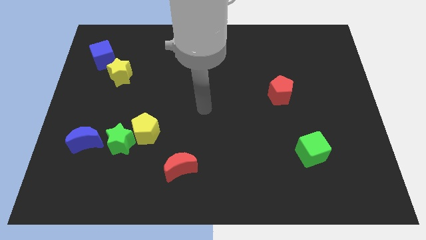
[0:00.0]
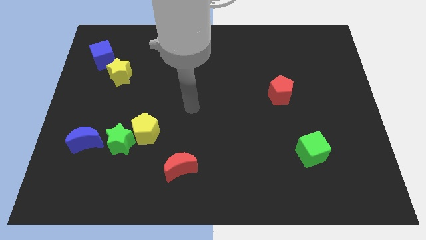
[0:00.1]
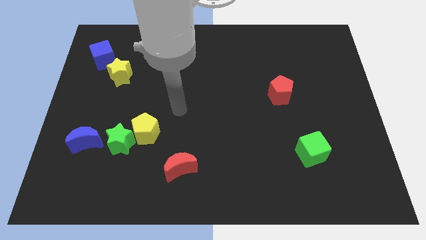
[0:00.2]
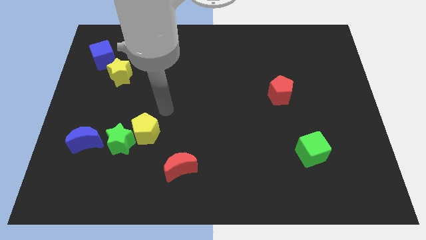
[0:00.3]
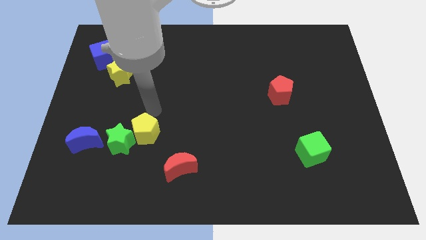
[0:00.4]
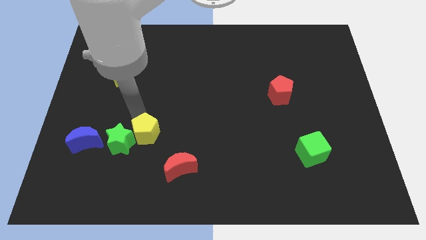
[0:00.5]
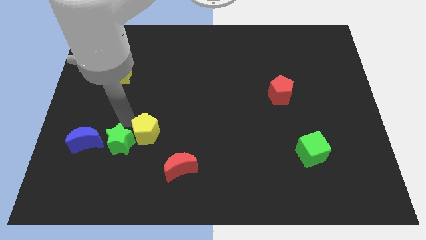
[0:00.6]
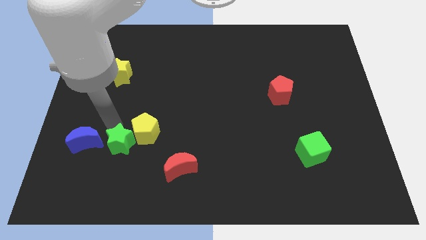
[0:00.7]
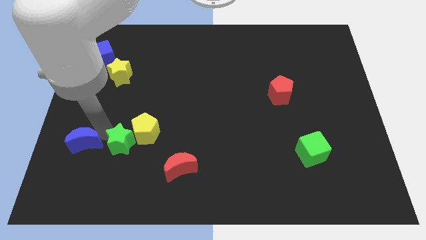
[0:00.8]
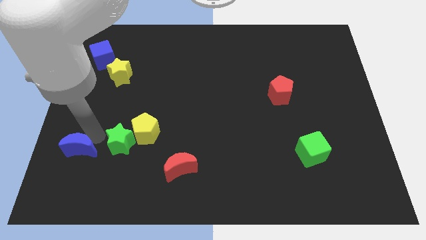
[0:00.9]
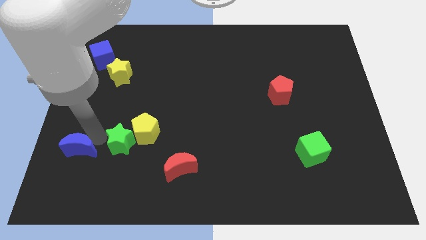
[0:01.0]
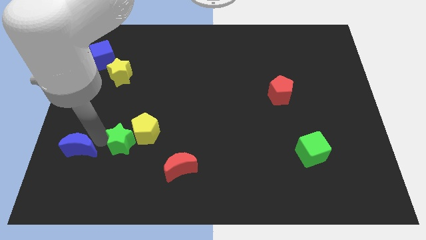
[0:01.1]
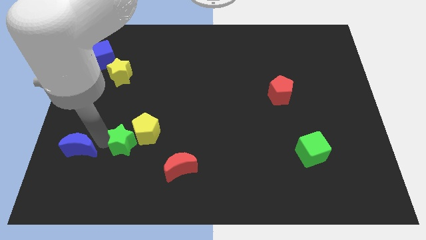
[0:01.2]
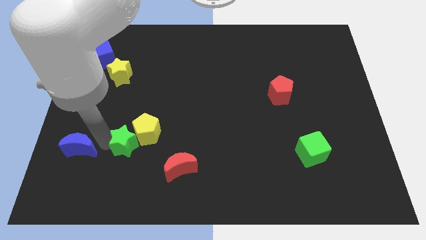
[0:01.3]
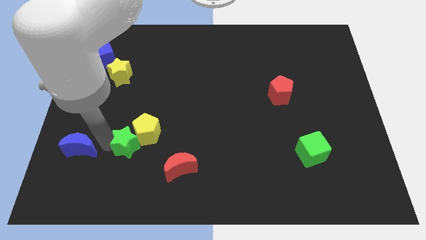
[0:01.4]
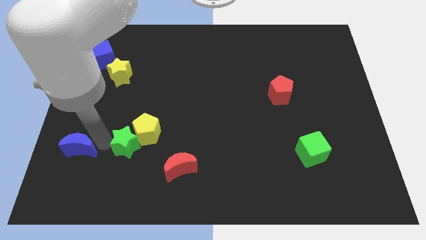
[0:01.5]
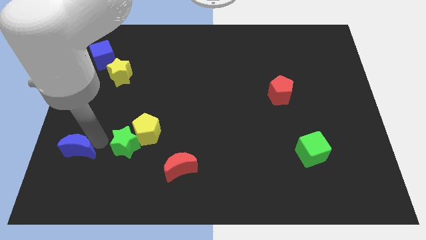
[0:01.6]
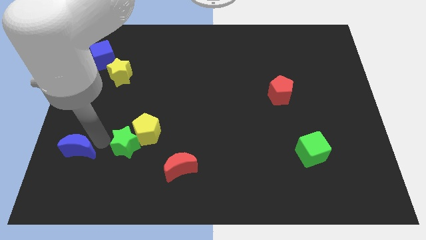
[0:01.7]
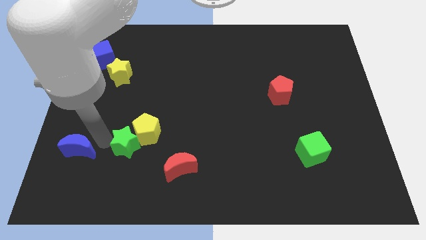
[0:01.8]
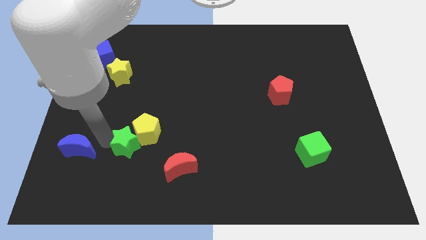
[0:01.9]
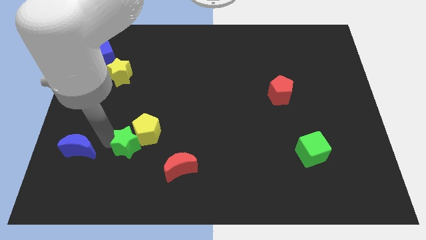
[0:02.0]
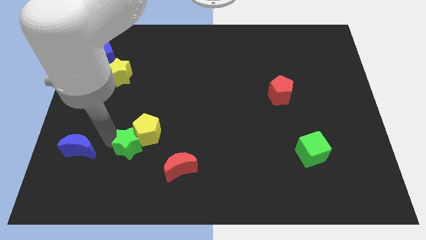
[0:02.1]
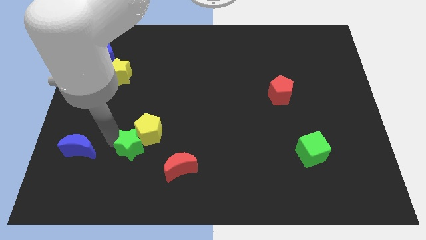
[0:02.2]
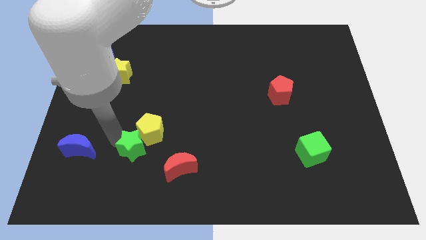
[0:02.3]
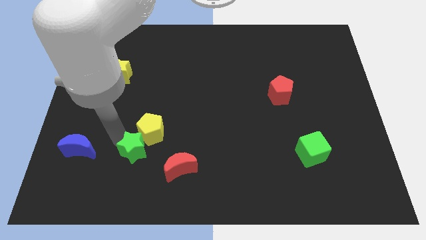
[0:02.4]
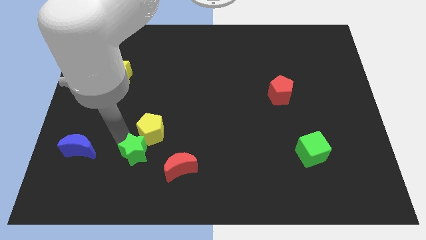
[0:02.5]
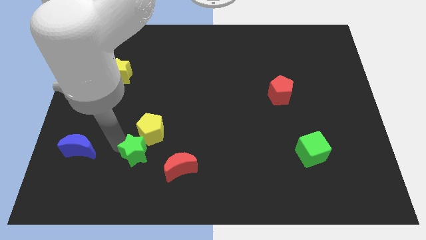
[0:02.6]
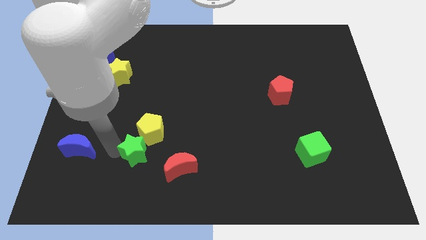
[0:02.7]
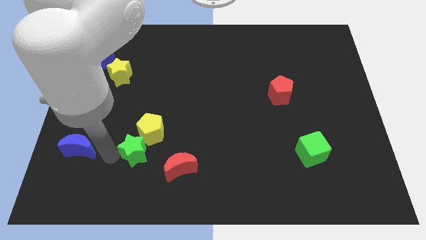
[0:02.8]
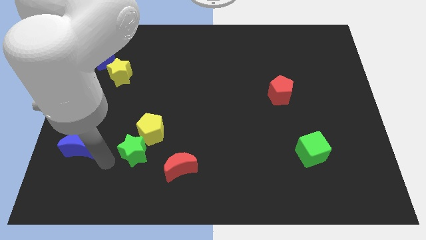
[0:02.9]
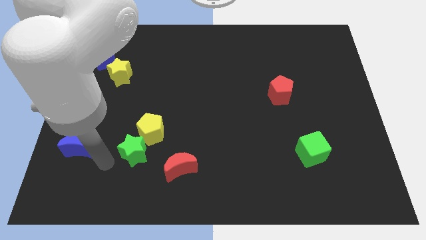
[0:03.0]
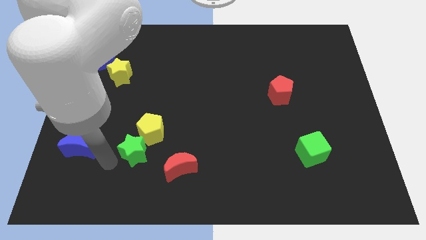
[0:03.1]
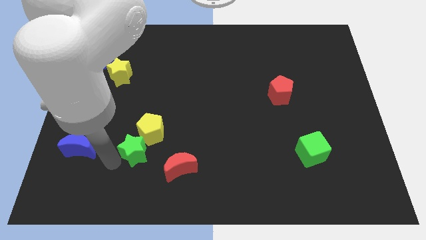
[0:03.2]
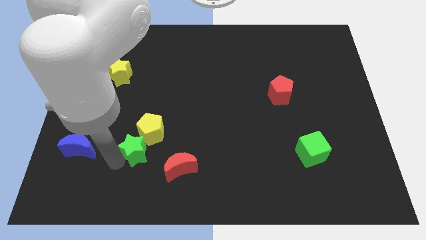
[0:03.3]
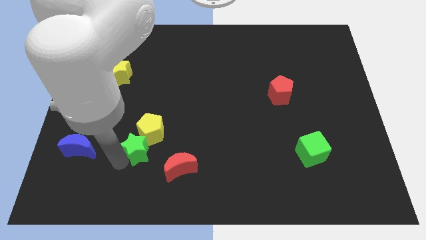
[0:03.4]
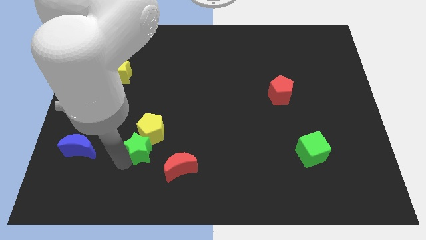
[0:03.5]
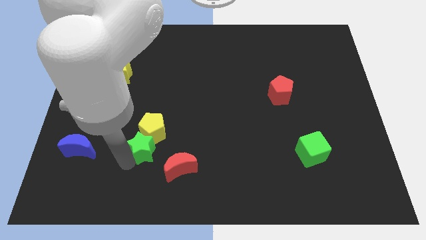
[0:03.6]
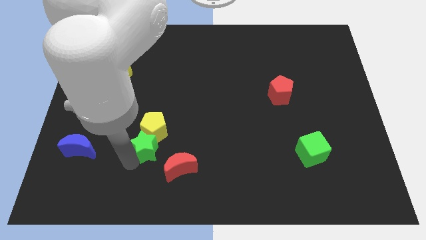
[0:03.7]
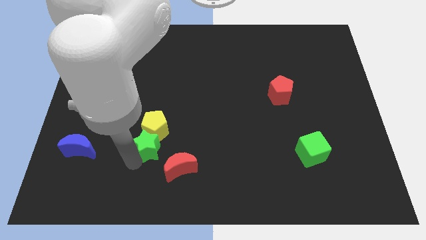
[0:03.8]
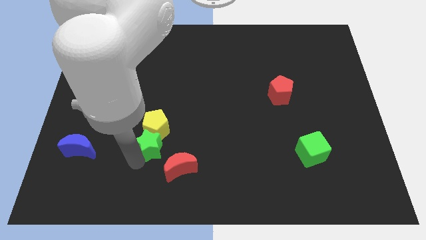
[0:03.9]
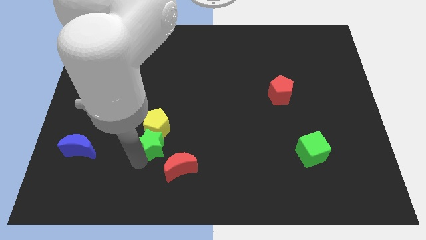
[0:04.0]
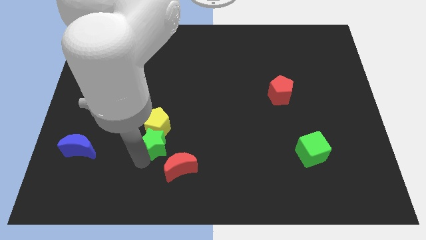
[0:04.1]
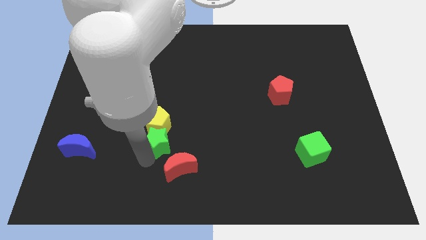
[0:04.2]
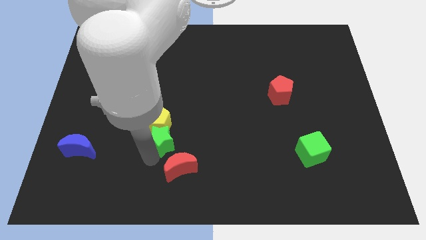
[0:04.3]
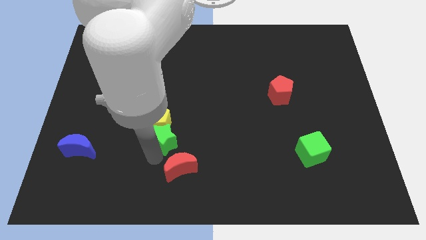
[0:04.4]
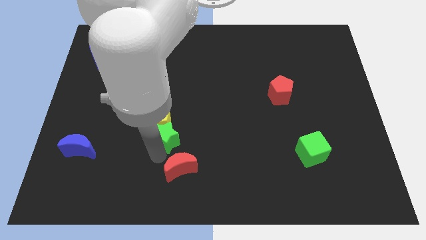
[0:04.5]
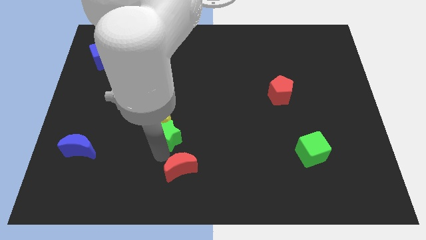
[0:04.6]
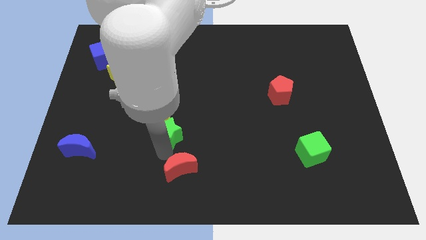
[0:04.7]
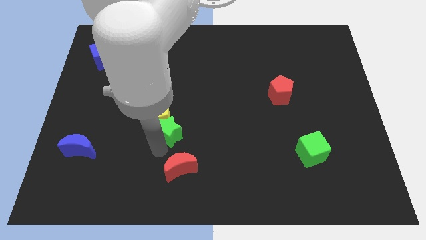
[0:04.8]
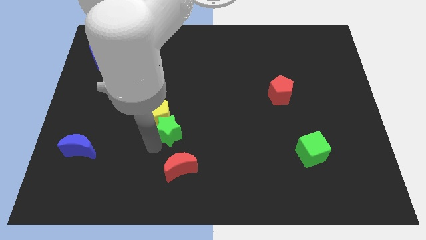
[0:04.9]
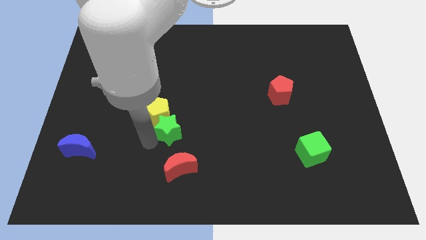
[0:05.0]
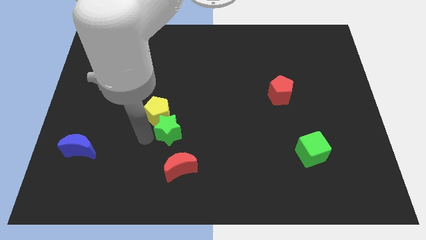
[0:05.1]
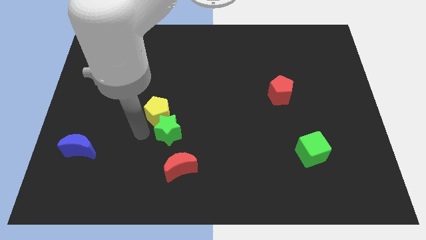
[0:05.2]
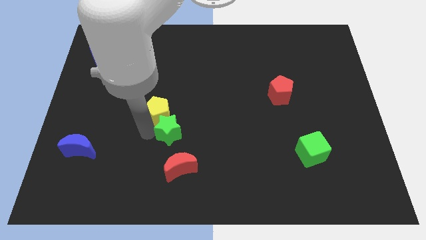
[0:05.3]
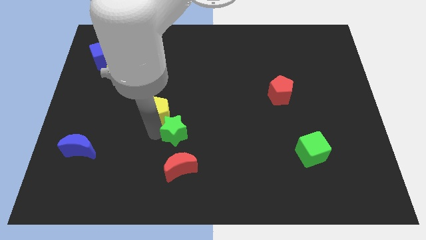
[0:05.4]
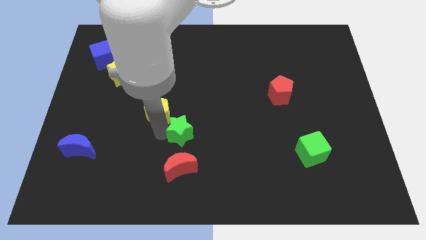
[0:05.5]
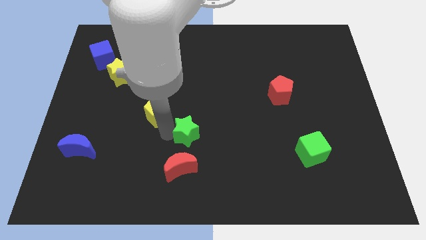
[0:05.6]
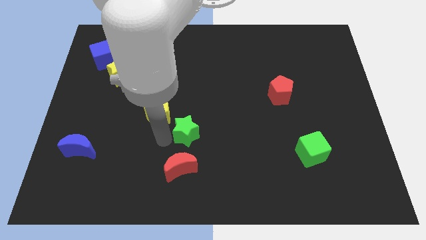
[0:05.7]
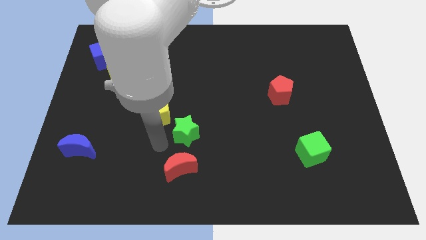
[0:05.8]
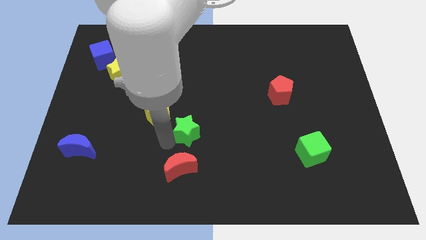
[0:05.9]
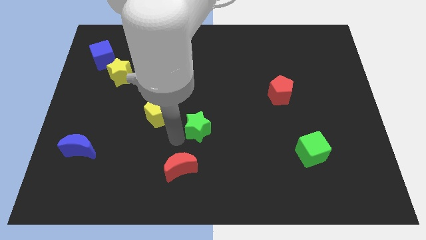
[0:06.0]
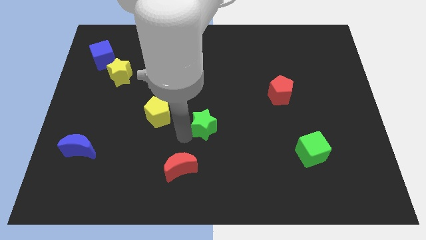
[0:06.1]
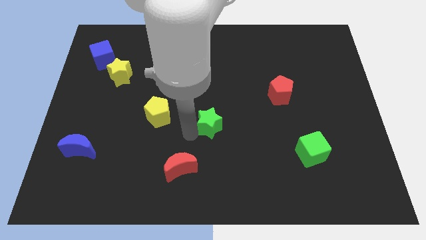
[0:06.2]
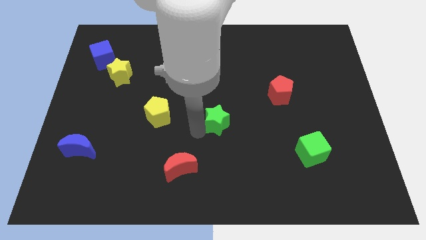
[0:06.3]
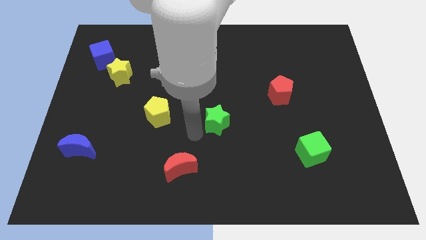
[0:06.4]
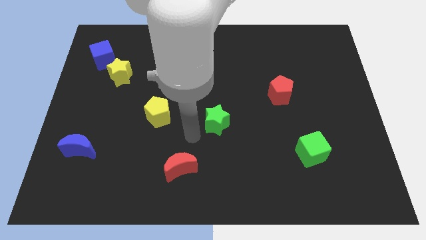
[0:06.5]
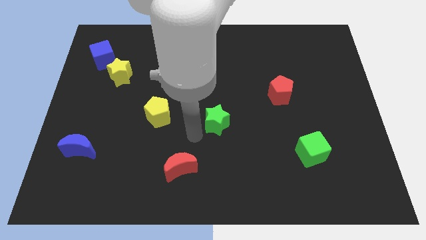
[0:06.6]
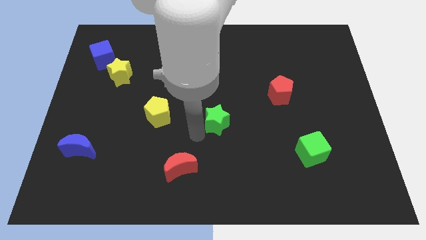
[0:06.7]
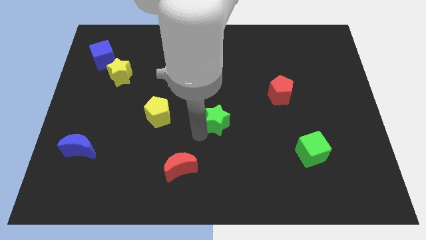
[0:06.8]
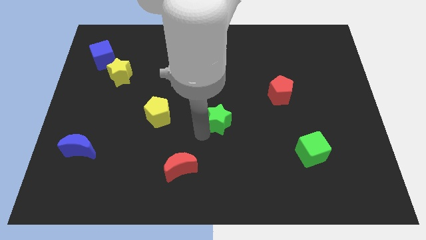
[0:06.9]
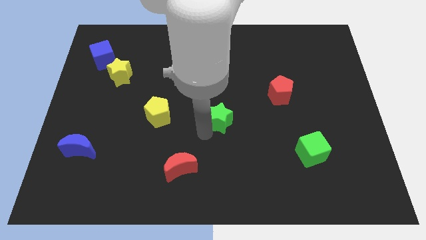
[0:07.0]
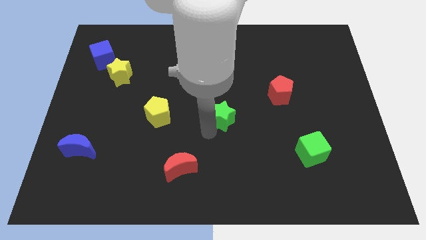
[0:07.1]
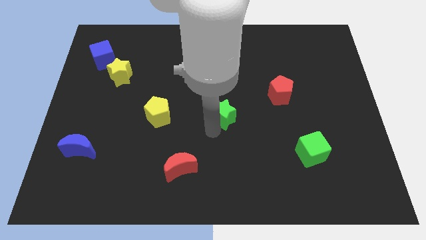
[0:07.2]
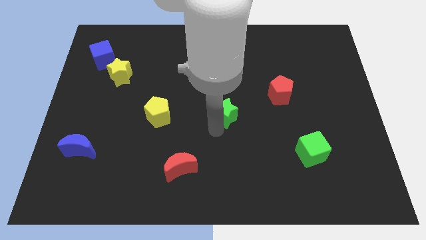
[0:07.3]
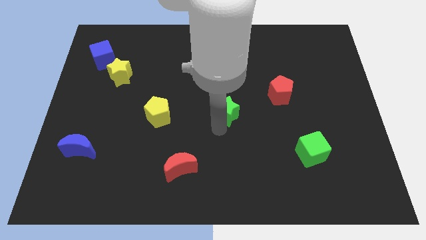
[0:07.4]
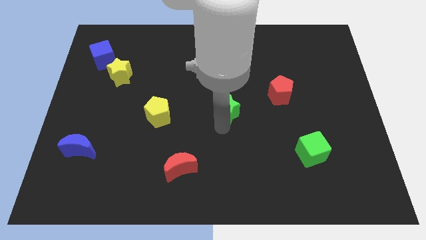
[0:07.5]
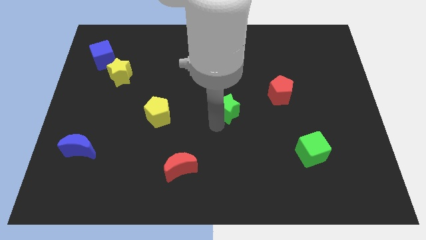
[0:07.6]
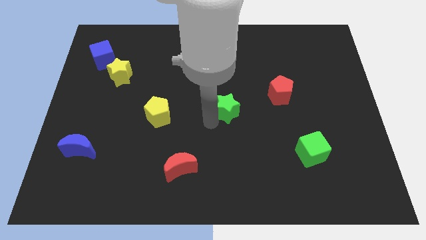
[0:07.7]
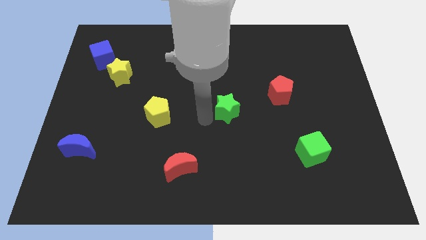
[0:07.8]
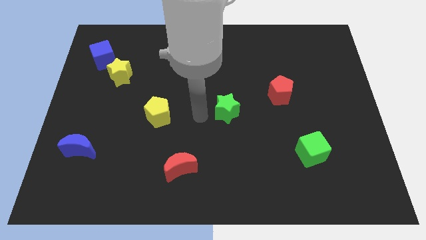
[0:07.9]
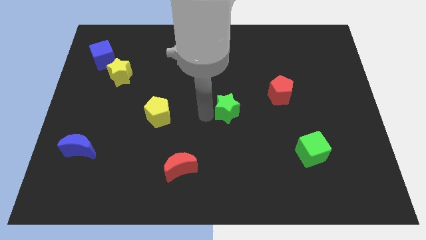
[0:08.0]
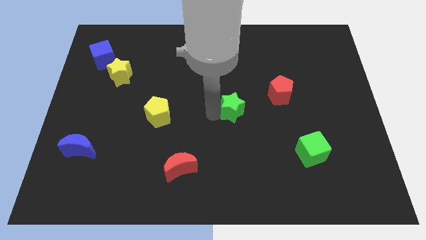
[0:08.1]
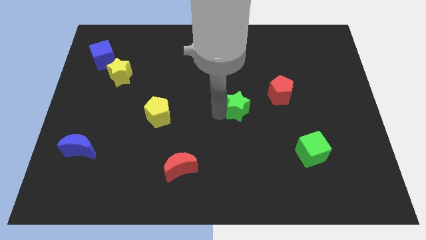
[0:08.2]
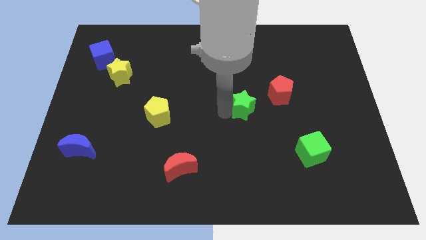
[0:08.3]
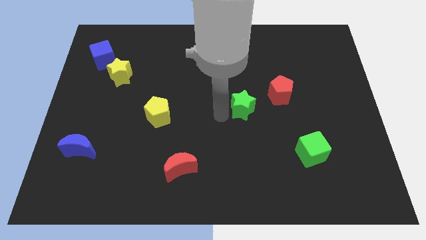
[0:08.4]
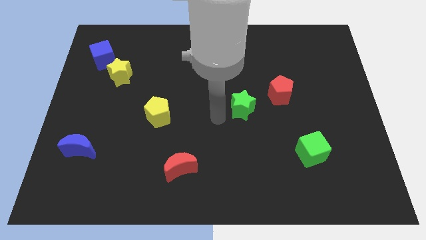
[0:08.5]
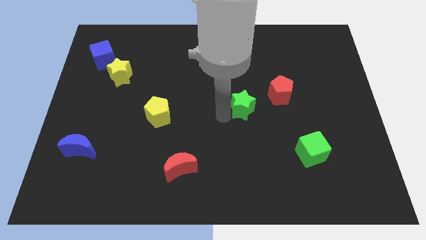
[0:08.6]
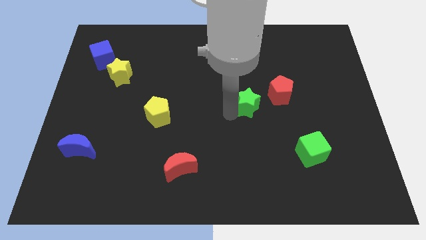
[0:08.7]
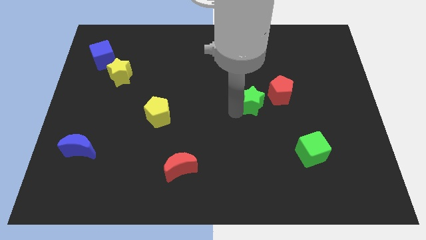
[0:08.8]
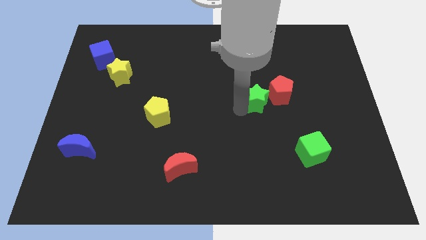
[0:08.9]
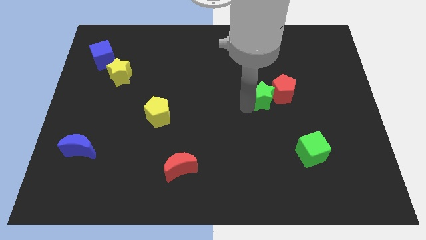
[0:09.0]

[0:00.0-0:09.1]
put the green star to the red pentagon
